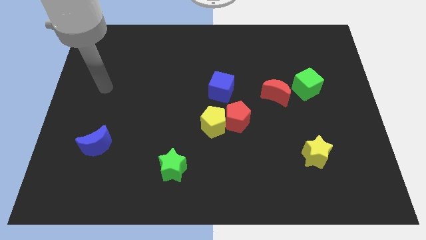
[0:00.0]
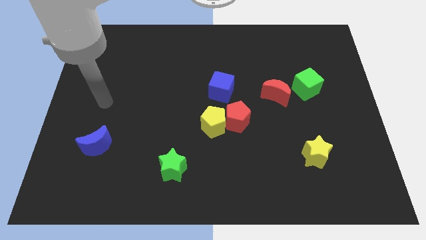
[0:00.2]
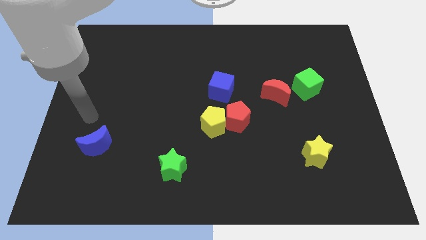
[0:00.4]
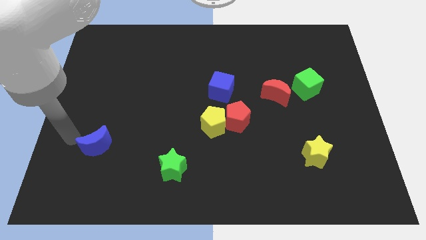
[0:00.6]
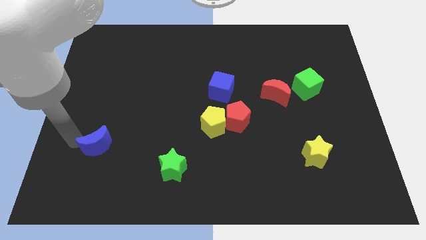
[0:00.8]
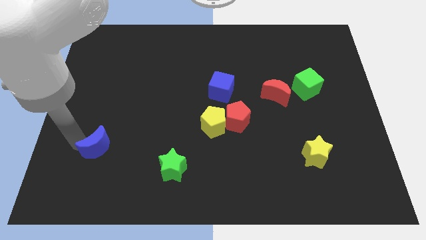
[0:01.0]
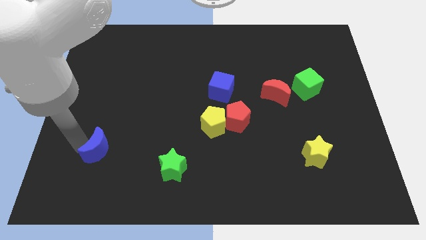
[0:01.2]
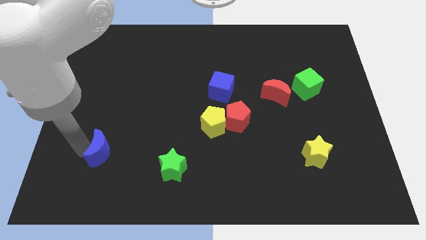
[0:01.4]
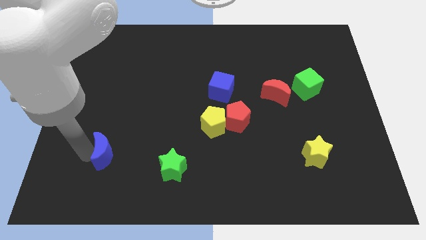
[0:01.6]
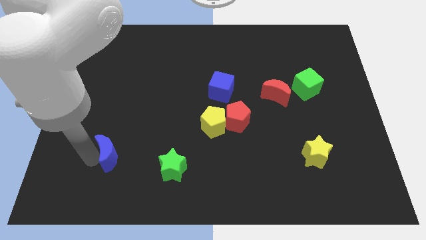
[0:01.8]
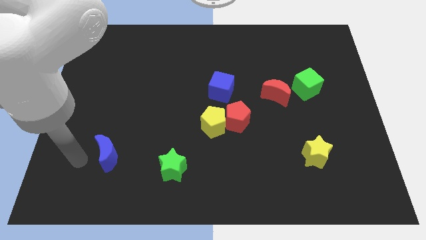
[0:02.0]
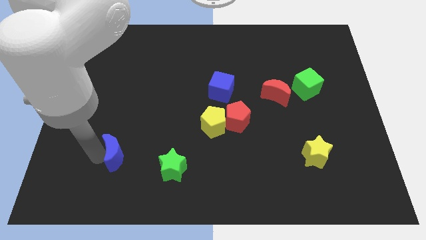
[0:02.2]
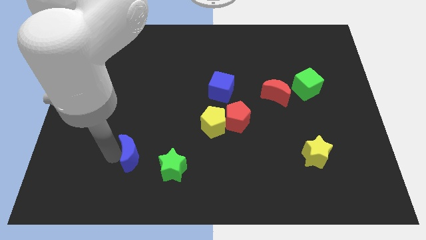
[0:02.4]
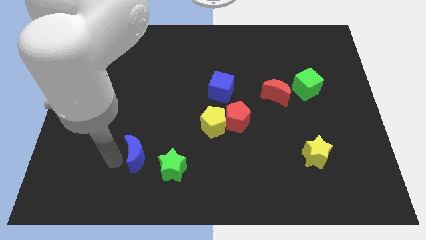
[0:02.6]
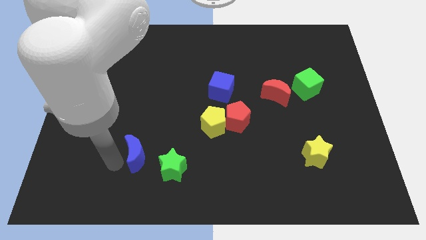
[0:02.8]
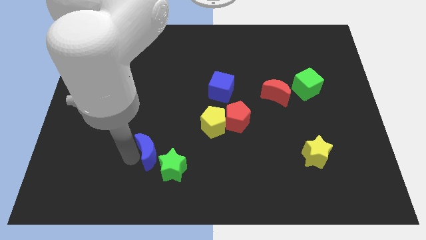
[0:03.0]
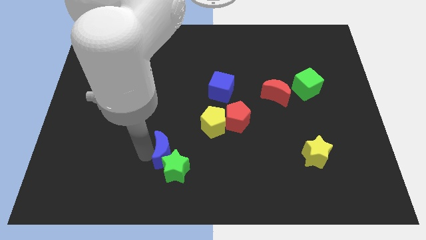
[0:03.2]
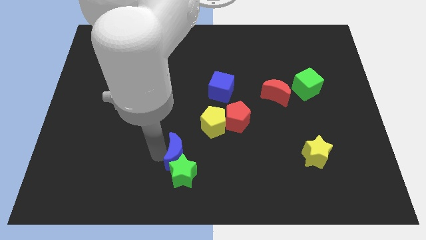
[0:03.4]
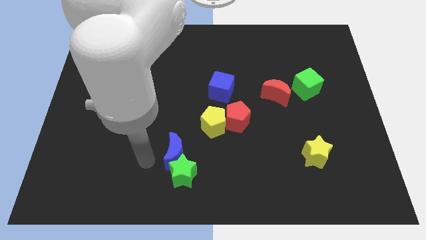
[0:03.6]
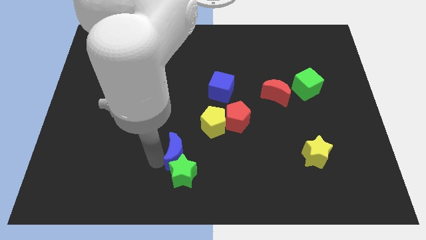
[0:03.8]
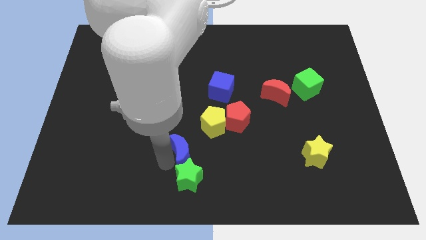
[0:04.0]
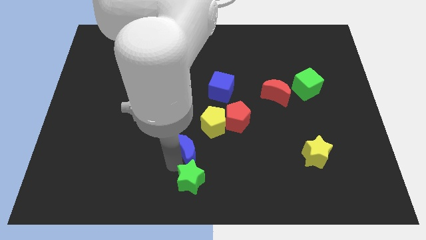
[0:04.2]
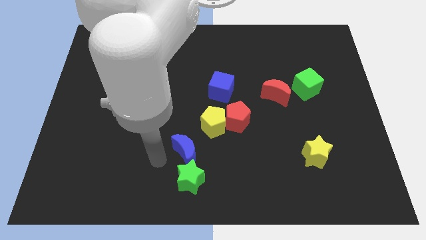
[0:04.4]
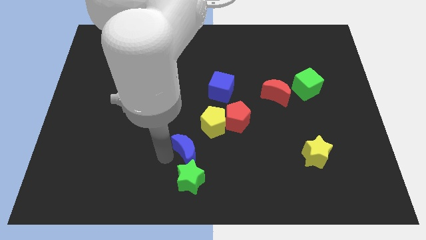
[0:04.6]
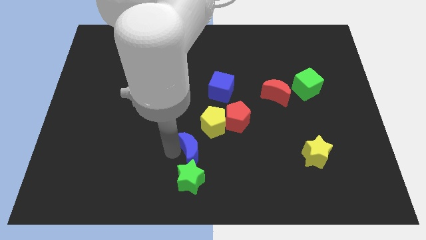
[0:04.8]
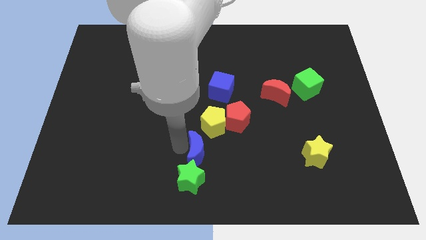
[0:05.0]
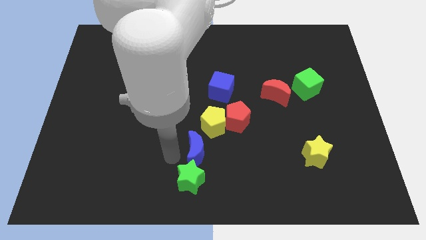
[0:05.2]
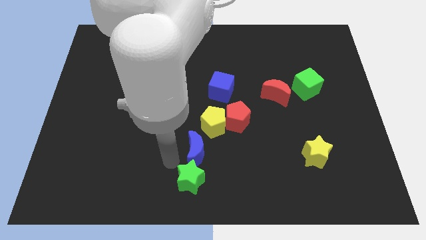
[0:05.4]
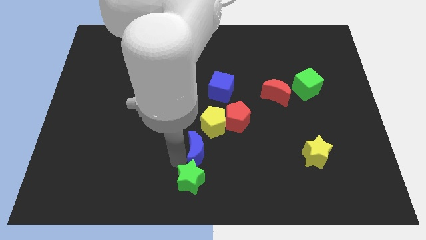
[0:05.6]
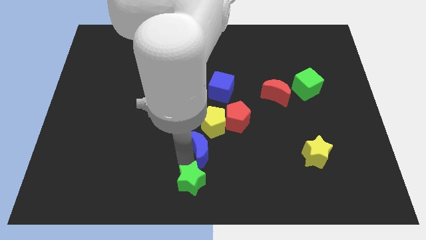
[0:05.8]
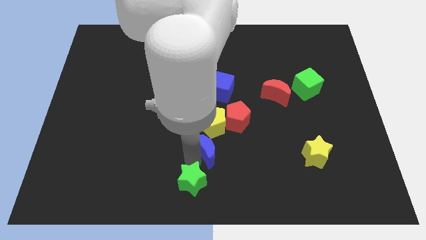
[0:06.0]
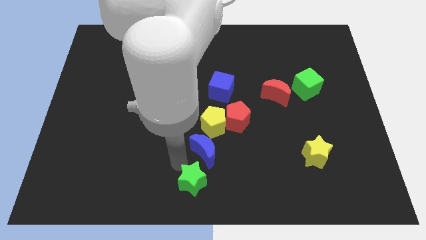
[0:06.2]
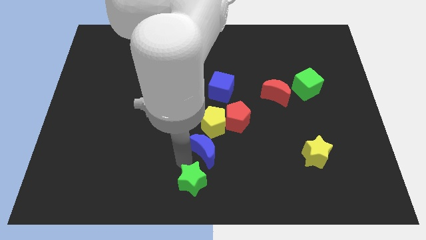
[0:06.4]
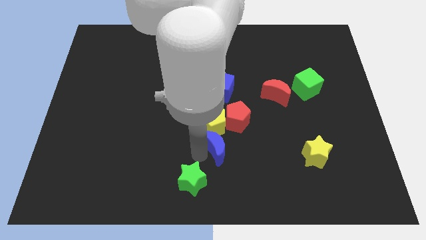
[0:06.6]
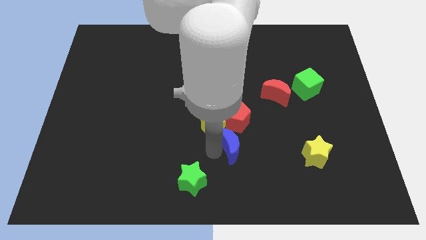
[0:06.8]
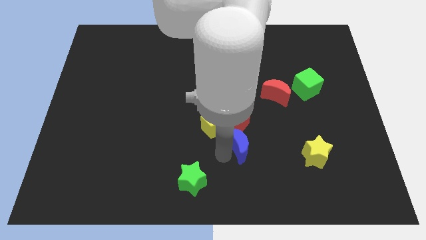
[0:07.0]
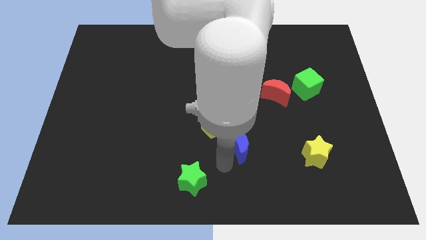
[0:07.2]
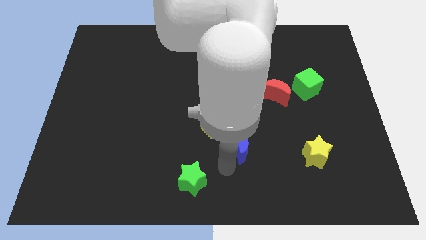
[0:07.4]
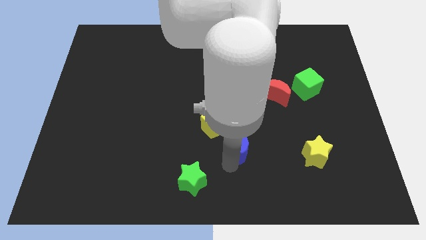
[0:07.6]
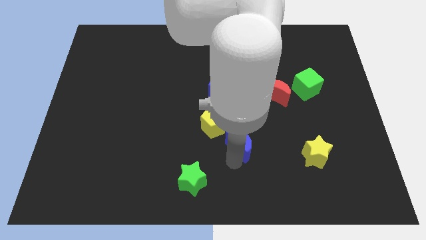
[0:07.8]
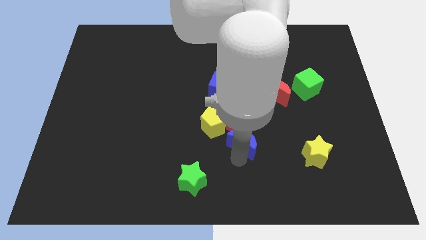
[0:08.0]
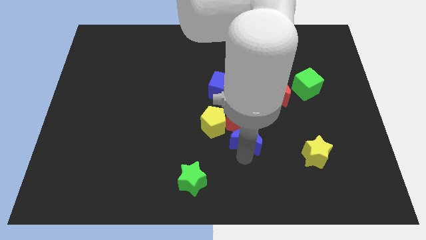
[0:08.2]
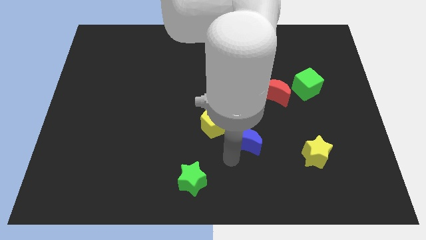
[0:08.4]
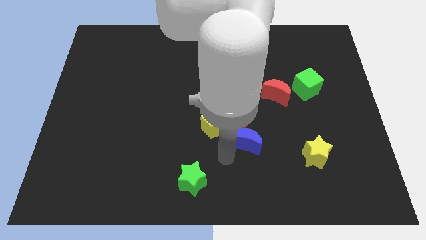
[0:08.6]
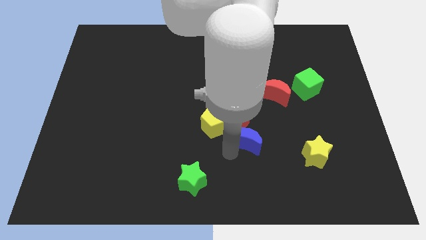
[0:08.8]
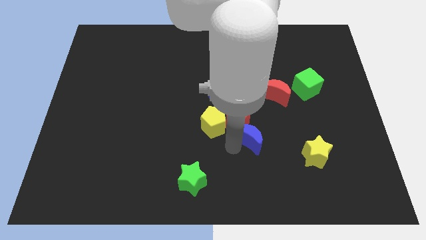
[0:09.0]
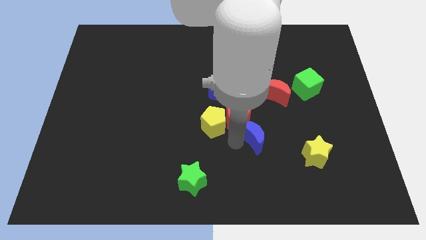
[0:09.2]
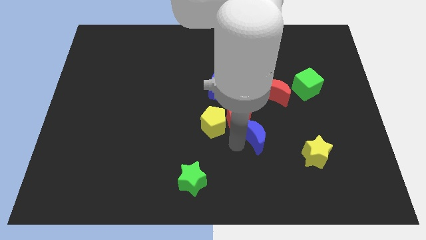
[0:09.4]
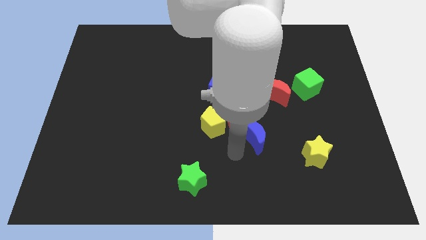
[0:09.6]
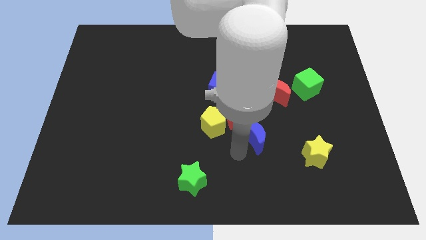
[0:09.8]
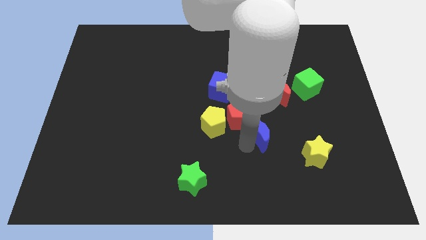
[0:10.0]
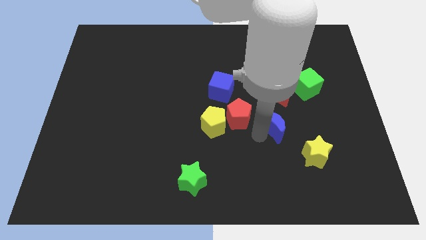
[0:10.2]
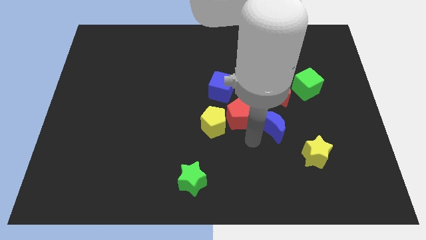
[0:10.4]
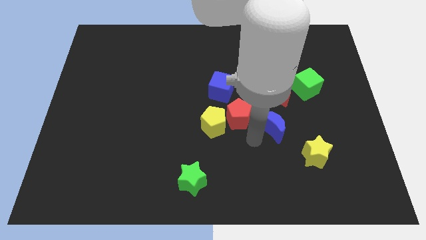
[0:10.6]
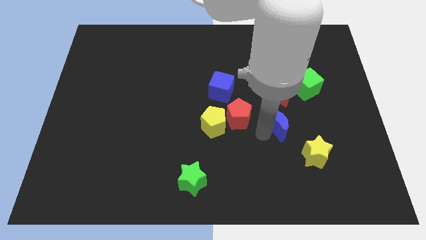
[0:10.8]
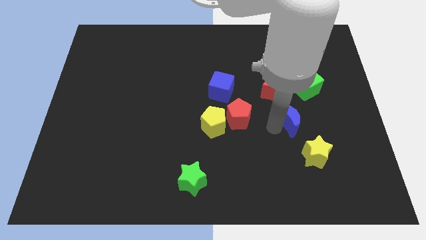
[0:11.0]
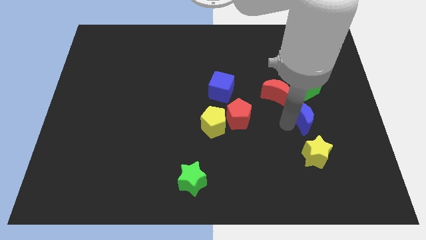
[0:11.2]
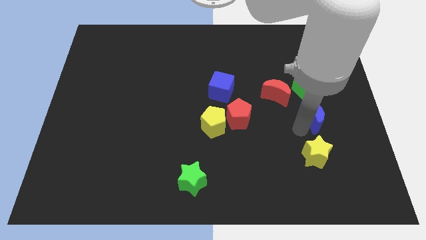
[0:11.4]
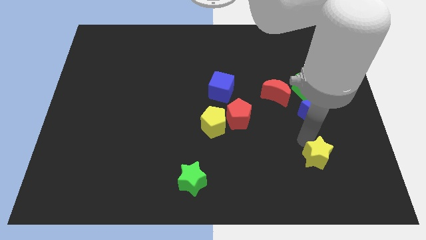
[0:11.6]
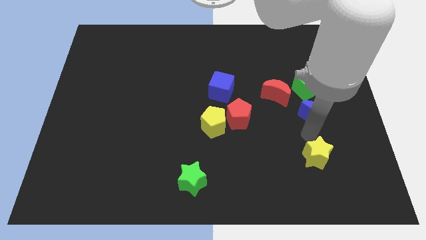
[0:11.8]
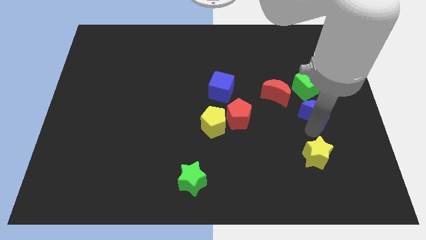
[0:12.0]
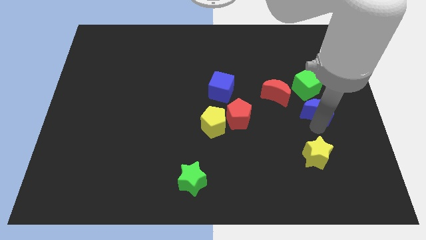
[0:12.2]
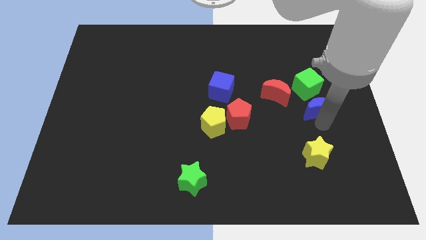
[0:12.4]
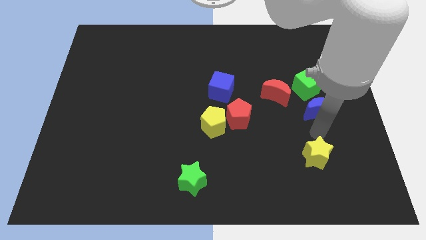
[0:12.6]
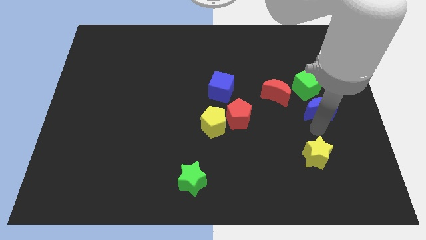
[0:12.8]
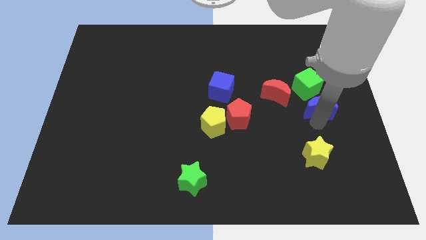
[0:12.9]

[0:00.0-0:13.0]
move the blue moon to the right of the red moon

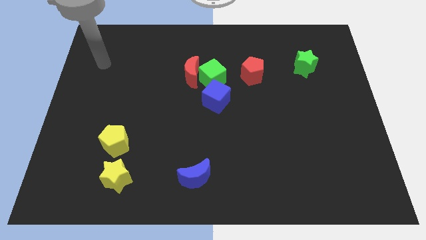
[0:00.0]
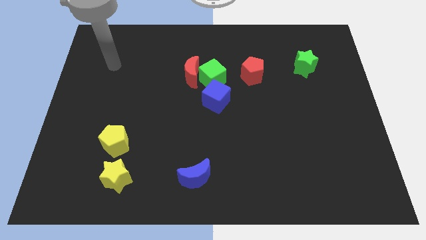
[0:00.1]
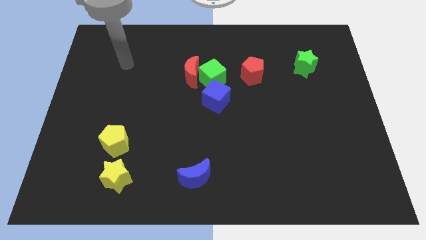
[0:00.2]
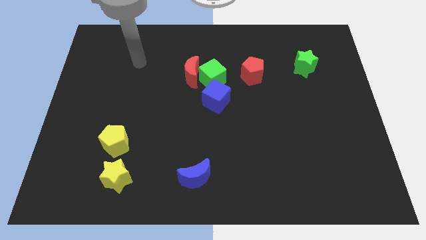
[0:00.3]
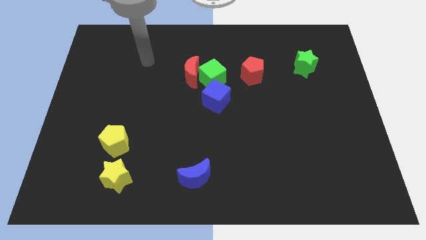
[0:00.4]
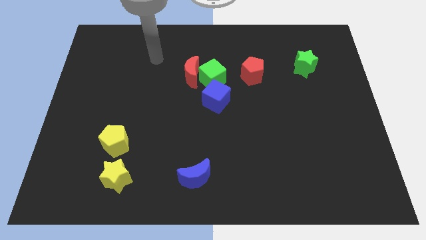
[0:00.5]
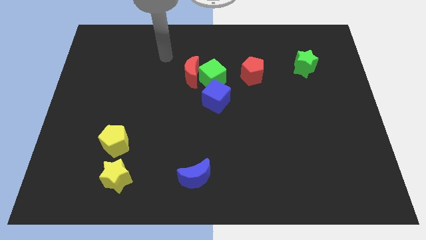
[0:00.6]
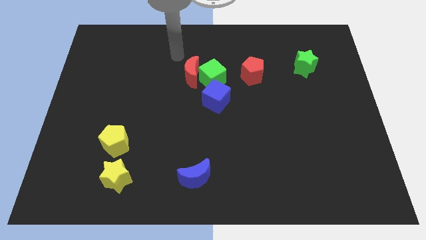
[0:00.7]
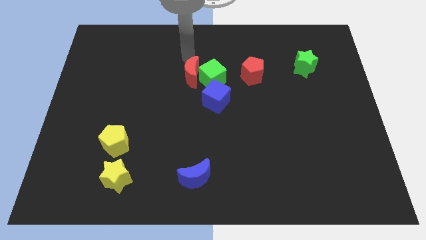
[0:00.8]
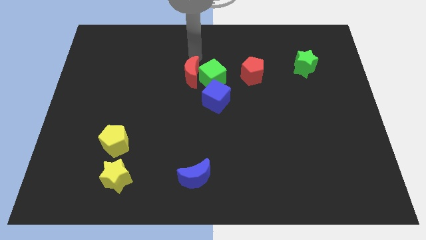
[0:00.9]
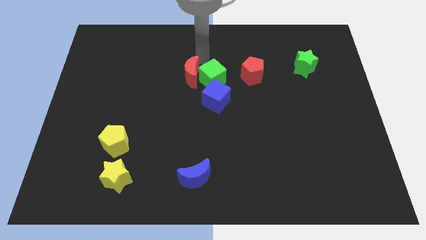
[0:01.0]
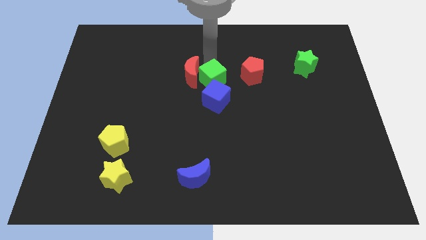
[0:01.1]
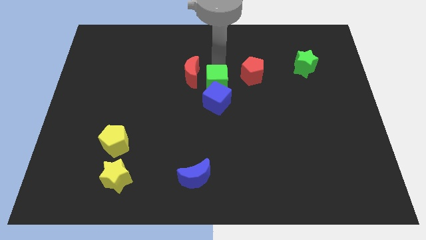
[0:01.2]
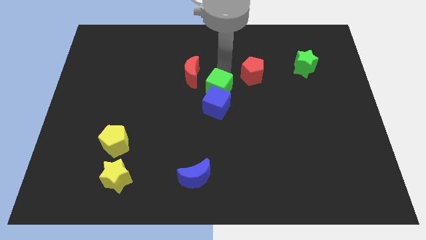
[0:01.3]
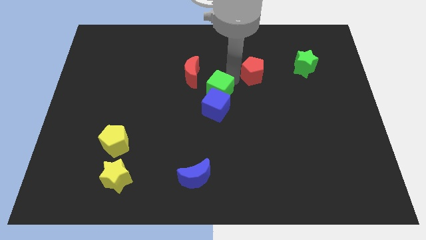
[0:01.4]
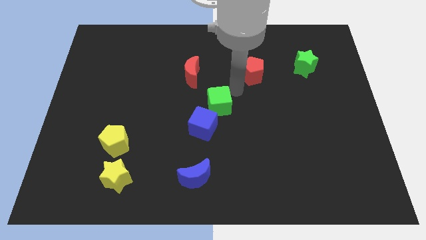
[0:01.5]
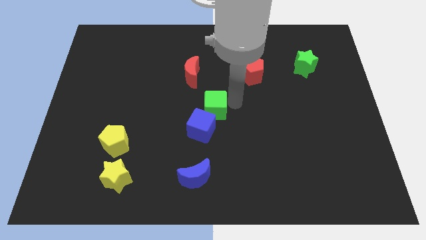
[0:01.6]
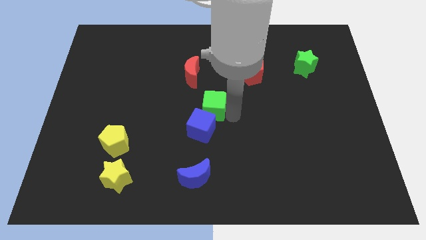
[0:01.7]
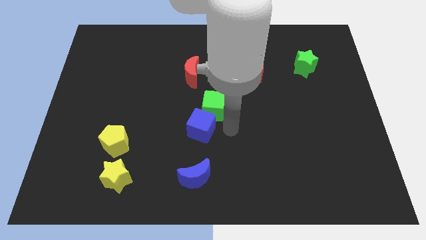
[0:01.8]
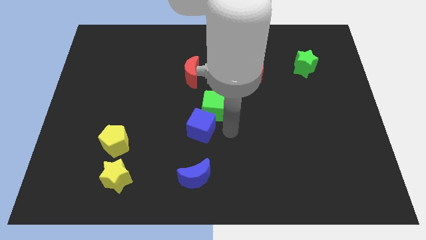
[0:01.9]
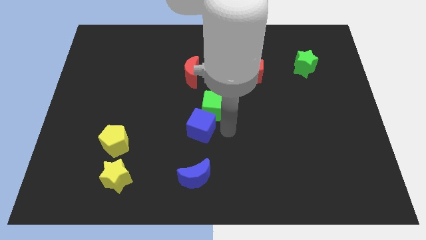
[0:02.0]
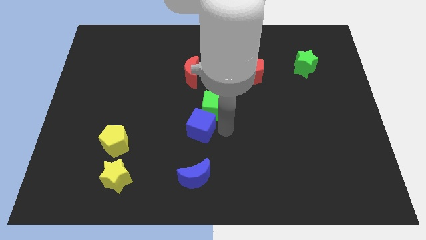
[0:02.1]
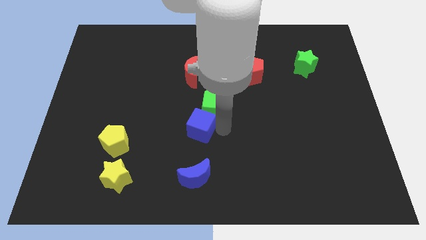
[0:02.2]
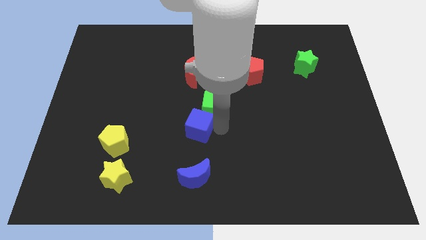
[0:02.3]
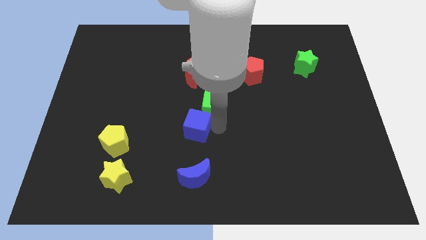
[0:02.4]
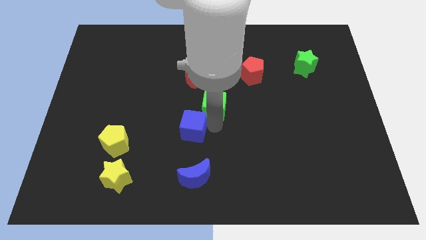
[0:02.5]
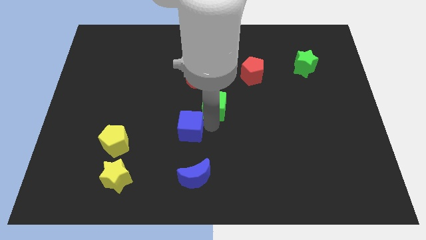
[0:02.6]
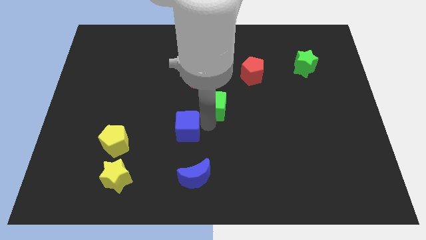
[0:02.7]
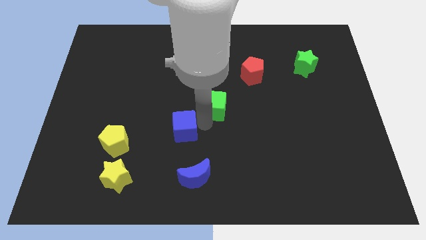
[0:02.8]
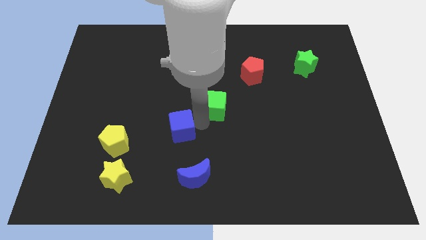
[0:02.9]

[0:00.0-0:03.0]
put the blue cube just right of the yellow pentagon
